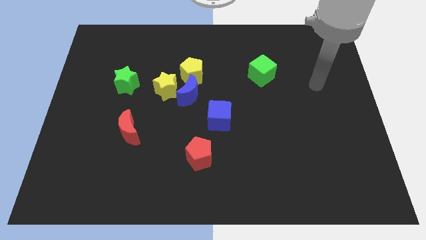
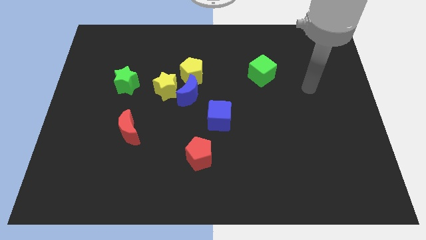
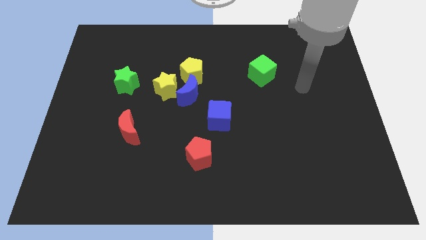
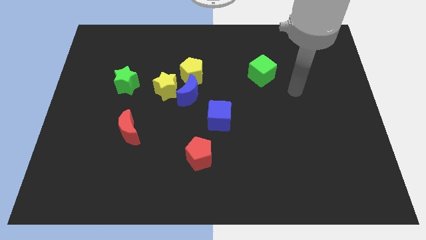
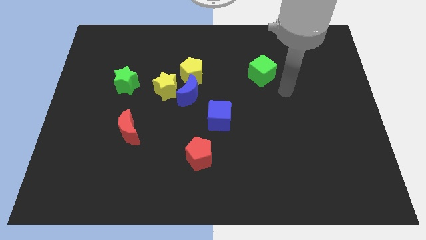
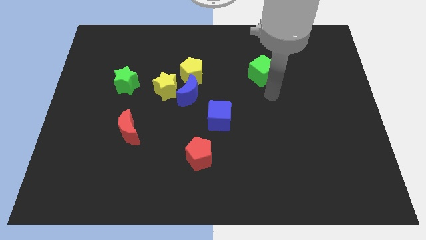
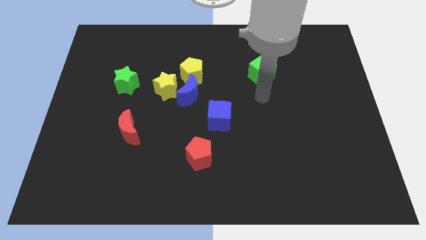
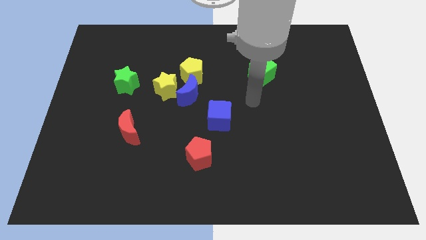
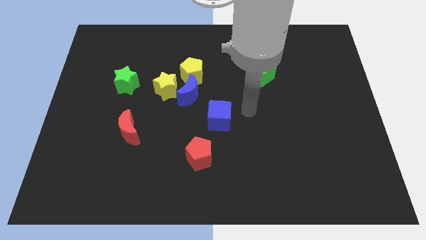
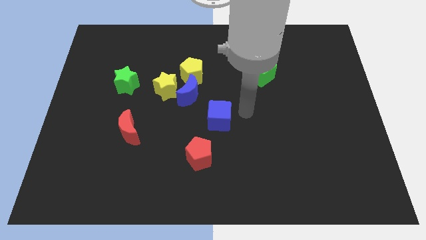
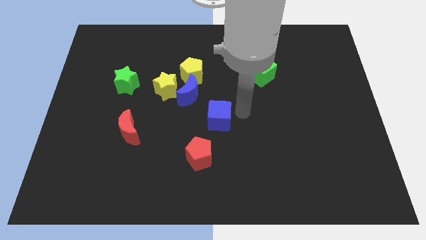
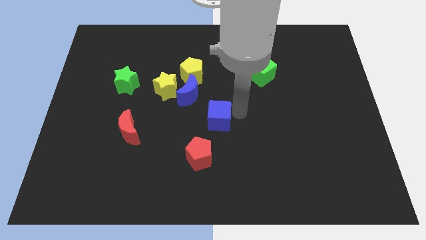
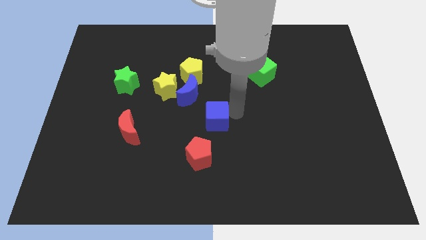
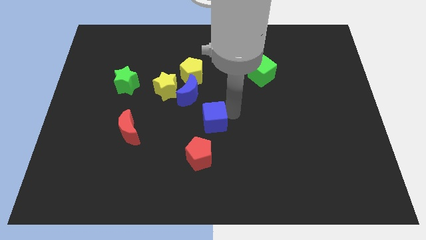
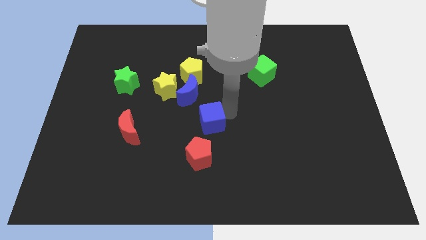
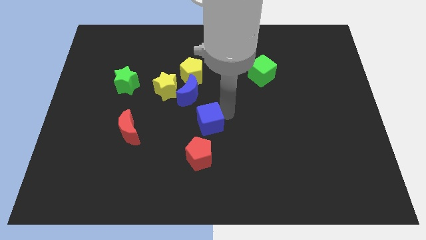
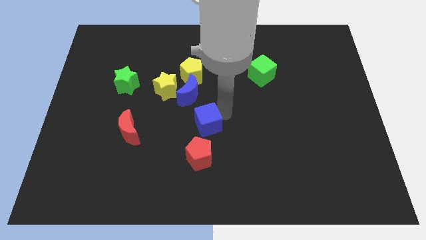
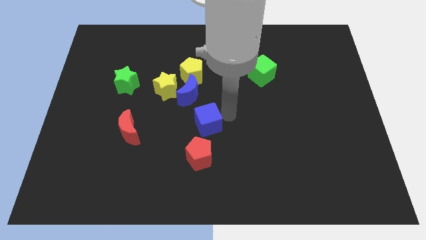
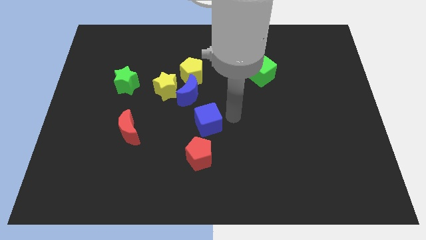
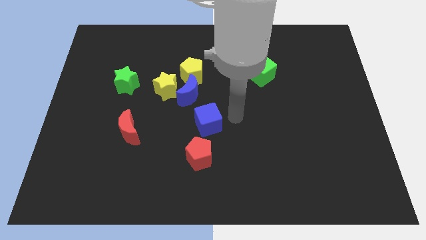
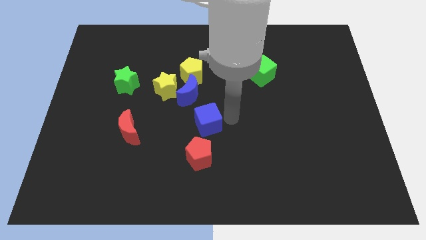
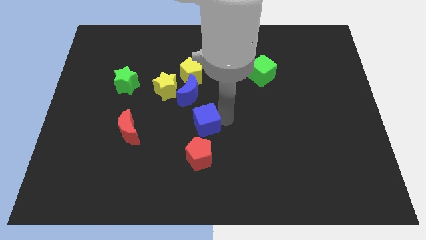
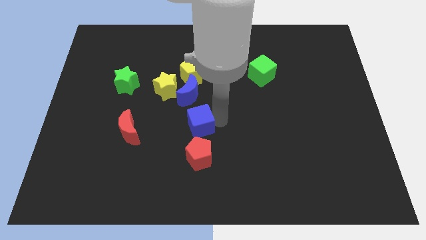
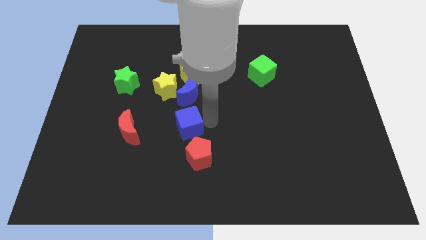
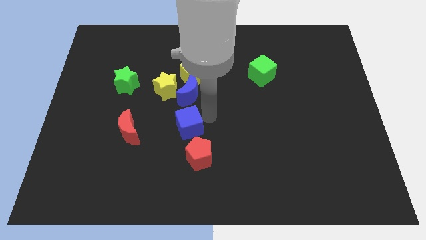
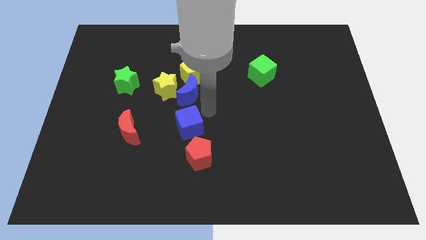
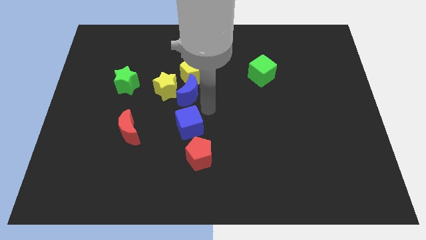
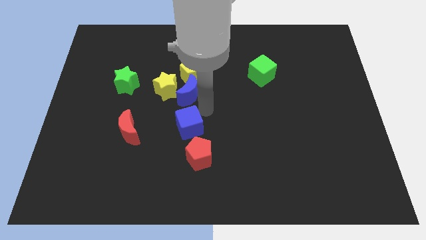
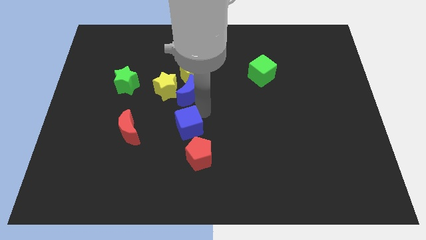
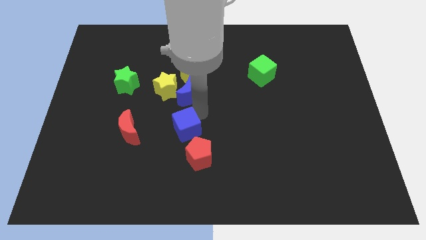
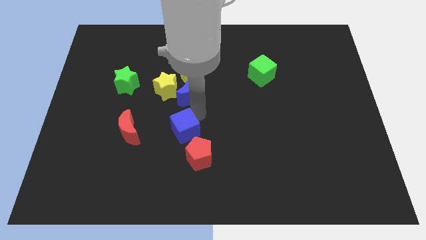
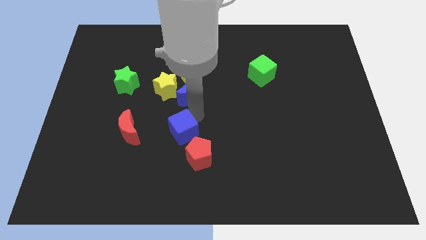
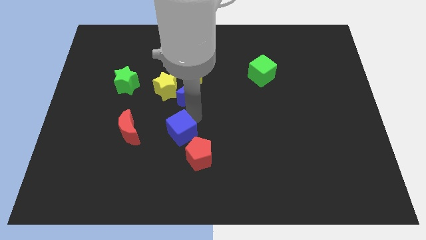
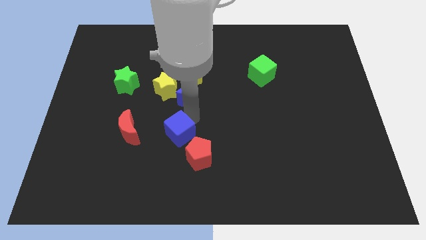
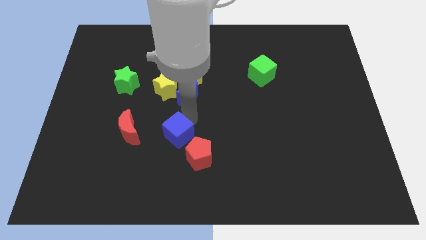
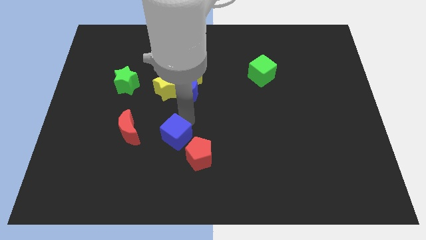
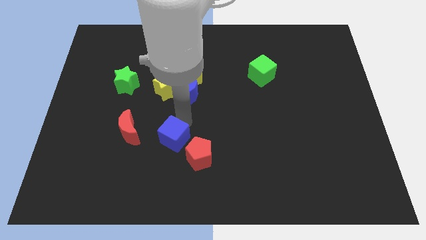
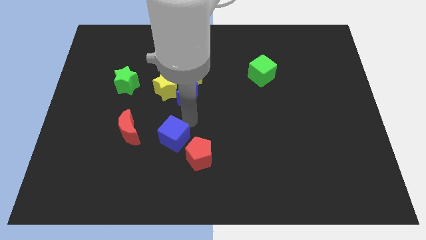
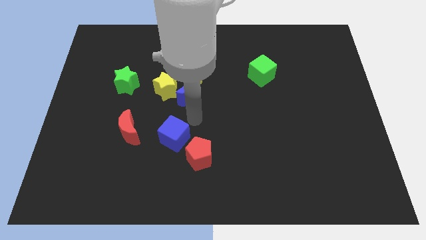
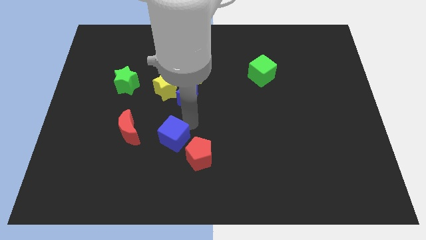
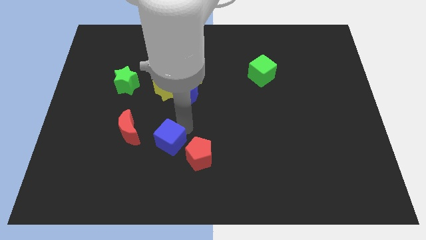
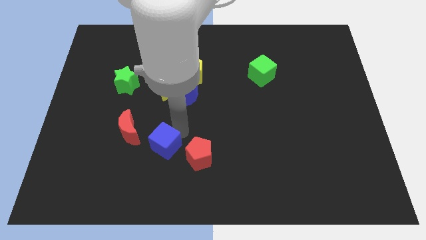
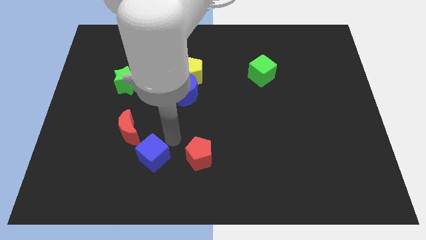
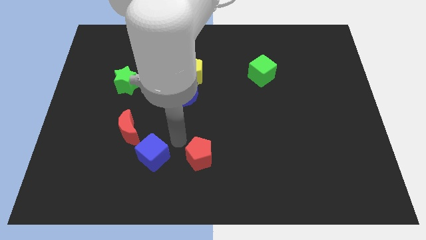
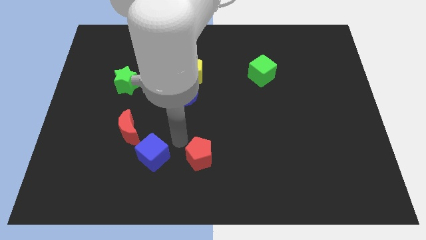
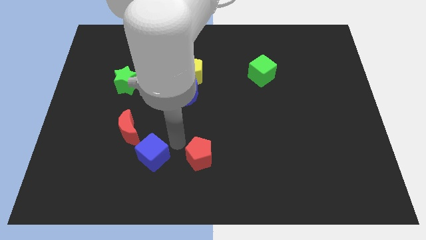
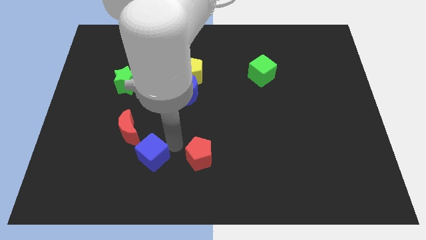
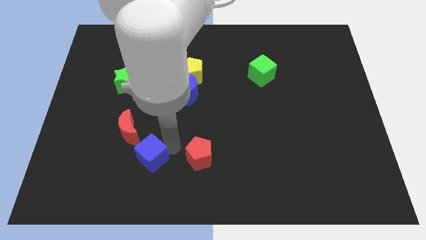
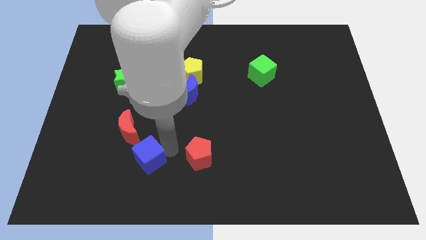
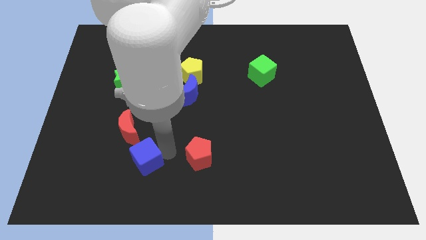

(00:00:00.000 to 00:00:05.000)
put the blue cube below the red moon

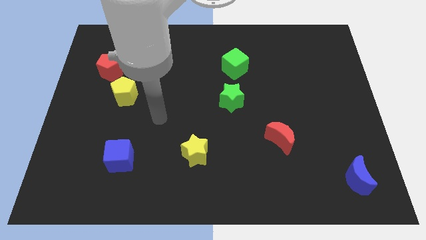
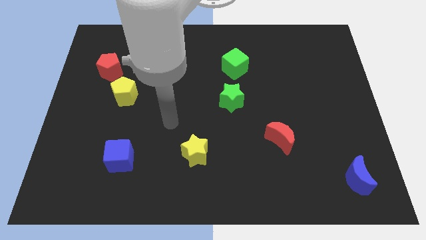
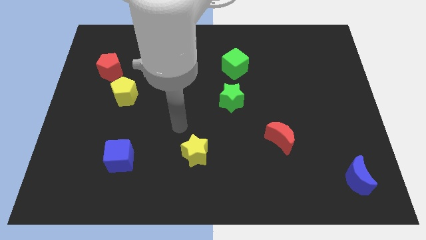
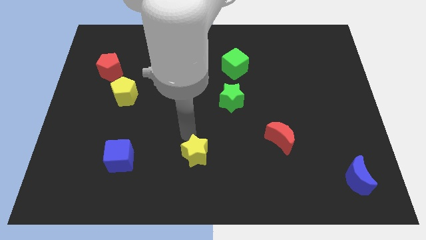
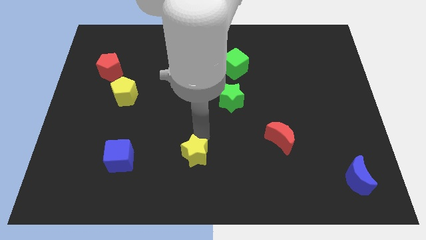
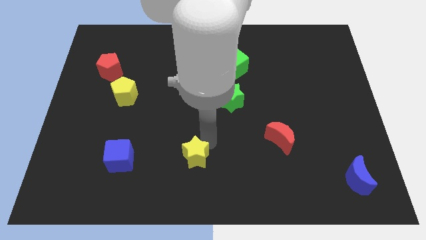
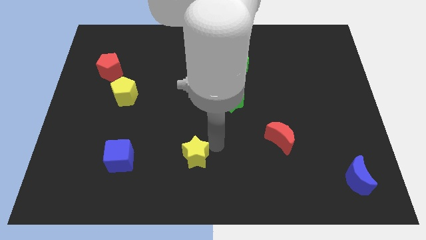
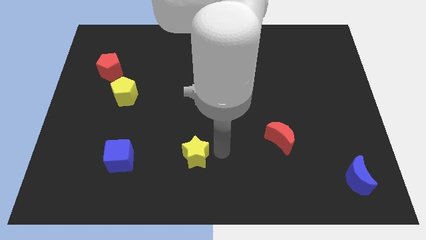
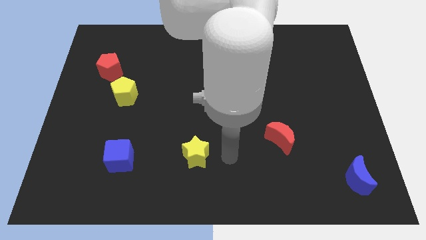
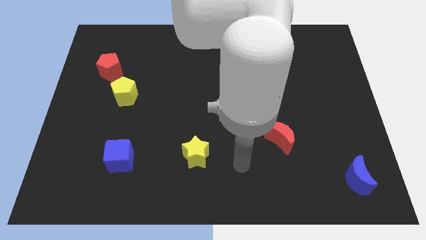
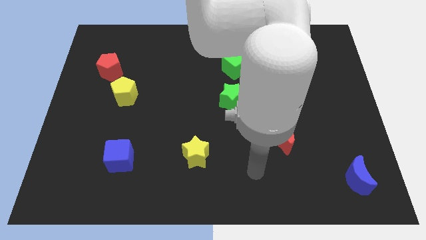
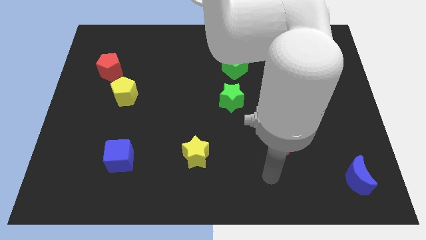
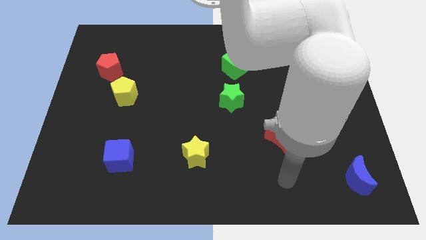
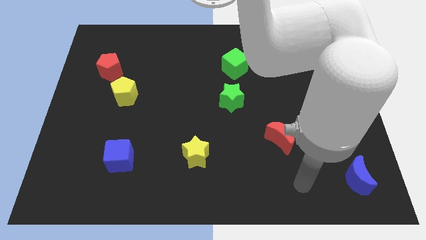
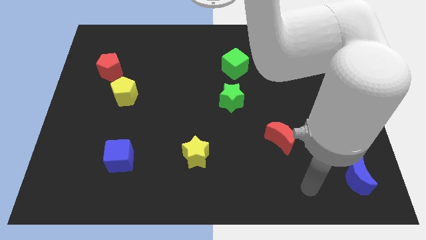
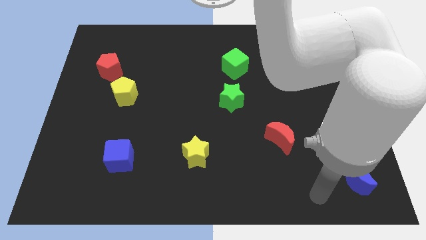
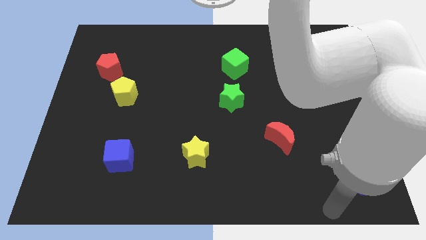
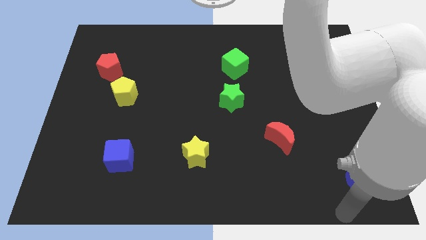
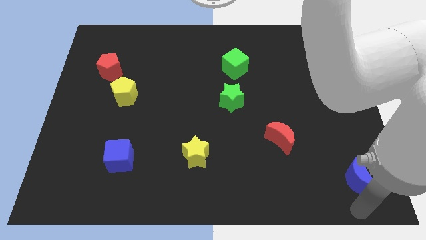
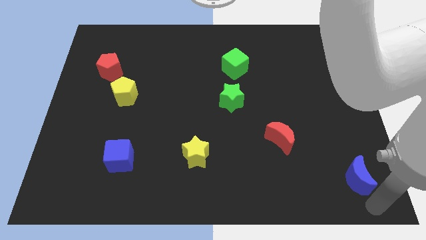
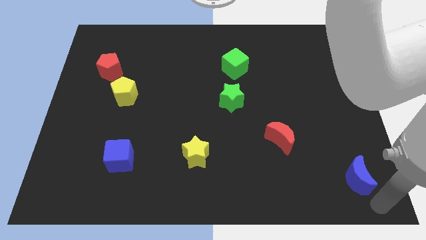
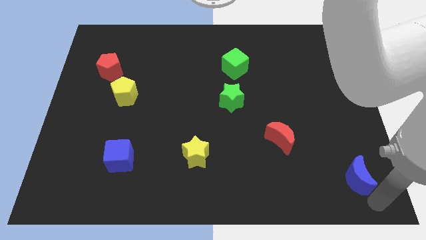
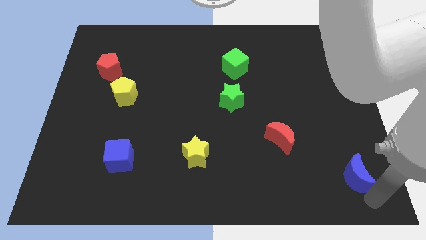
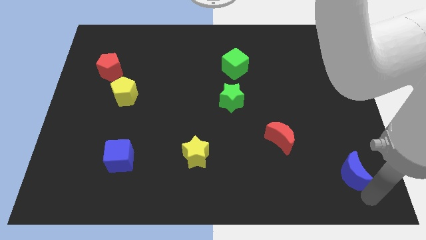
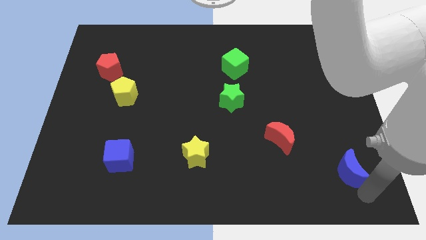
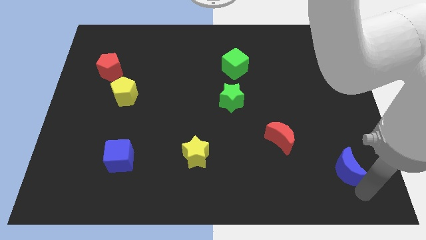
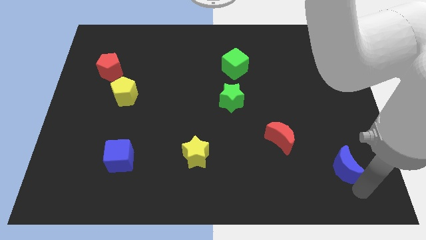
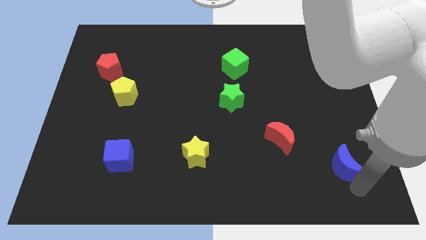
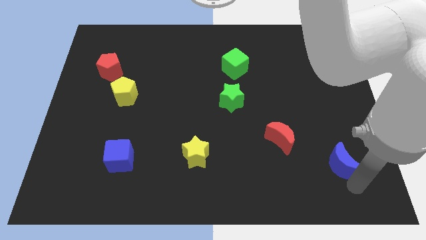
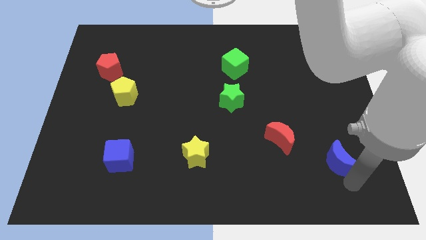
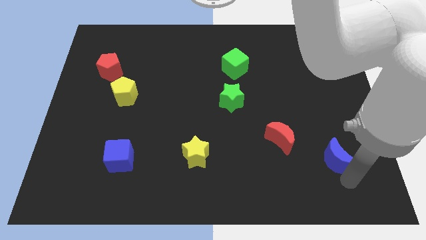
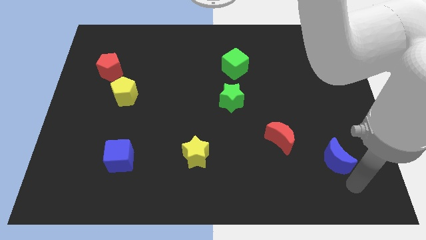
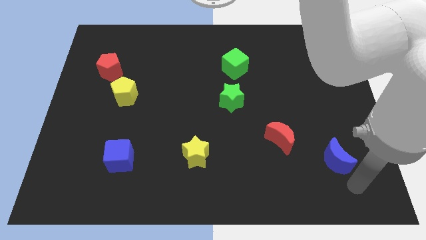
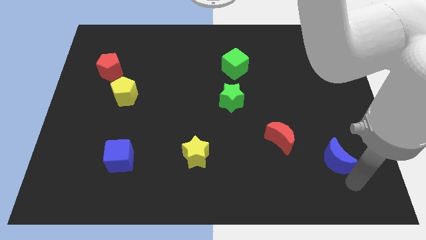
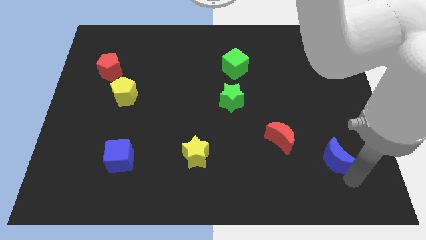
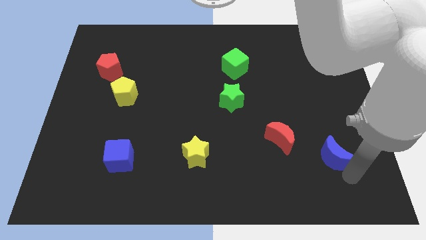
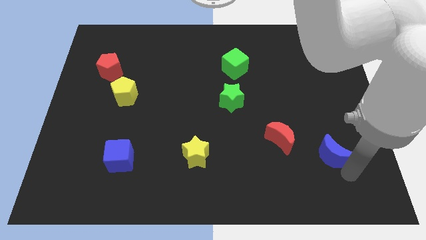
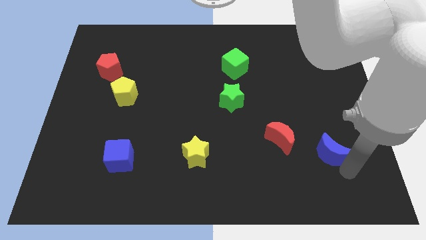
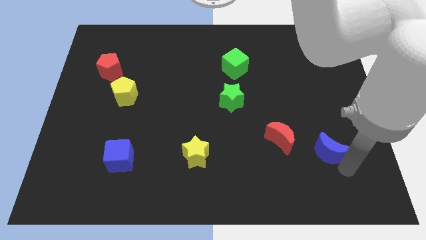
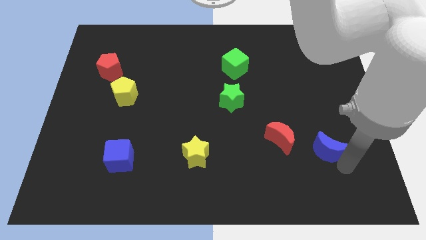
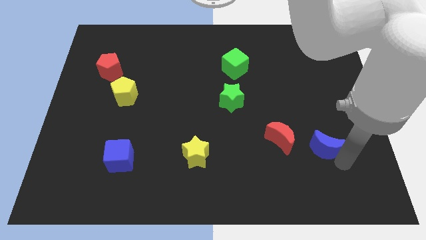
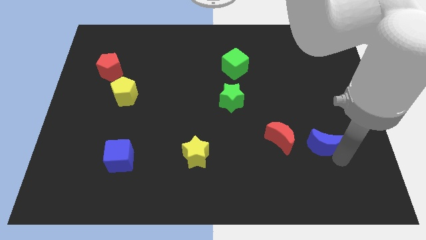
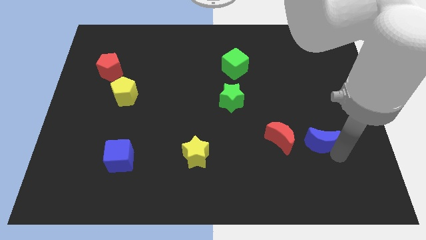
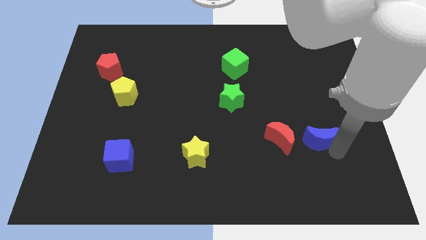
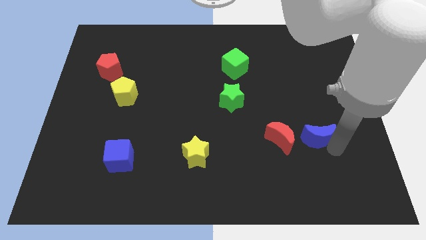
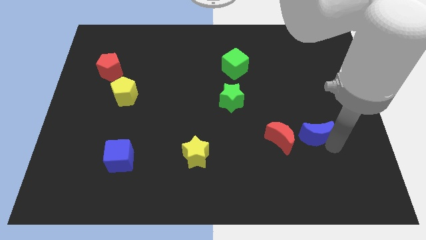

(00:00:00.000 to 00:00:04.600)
slide the blue moon to the top right of the red moon
